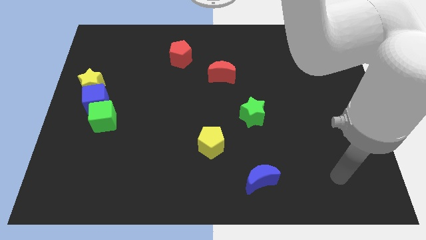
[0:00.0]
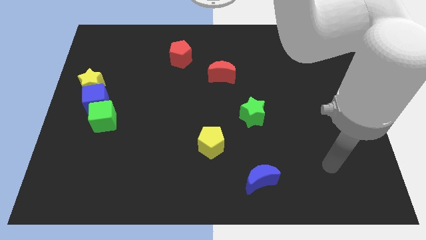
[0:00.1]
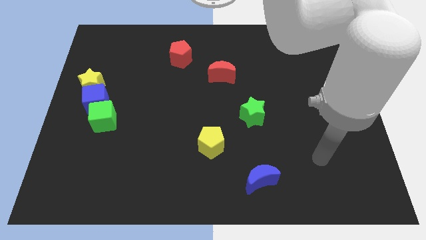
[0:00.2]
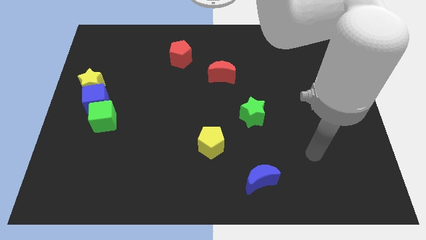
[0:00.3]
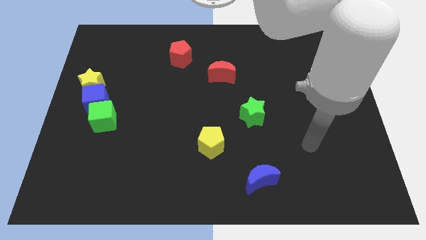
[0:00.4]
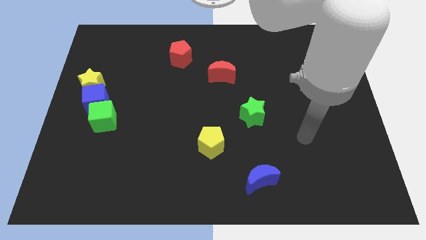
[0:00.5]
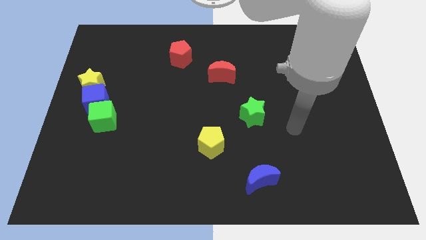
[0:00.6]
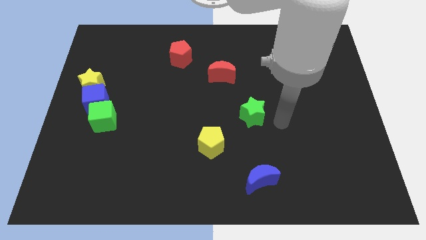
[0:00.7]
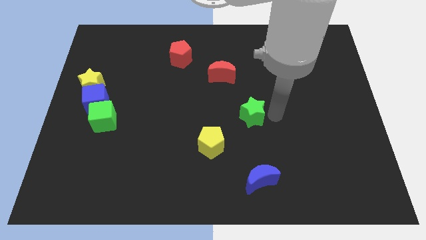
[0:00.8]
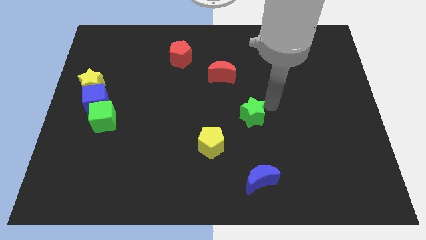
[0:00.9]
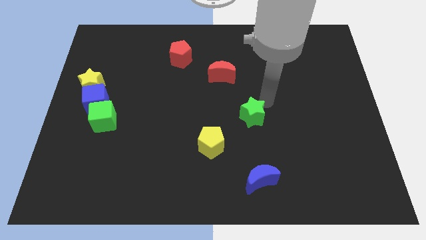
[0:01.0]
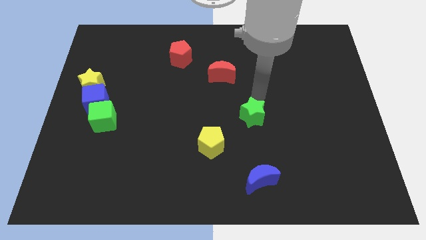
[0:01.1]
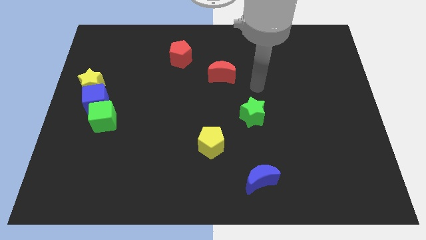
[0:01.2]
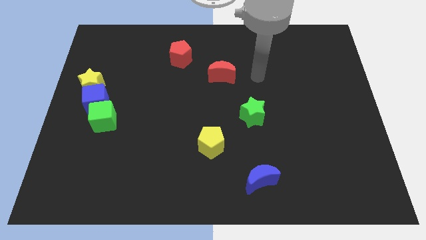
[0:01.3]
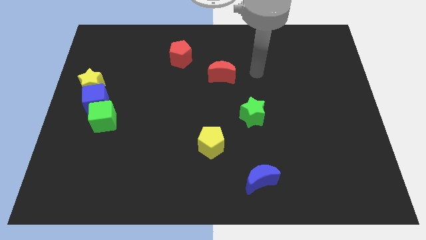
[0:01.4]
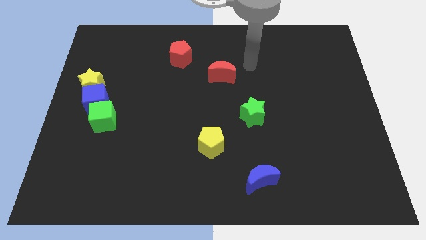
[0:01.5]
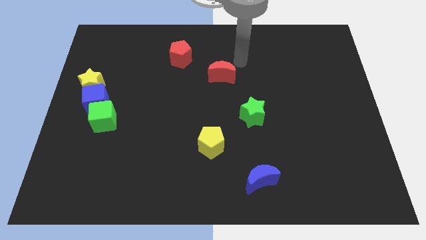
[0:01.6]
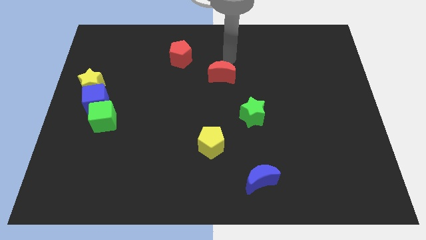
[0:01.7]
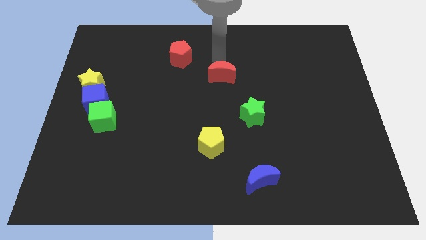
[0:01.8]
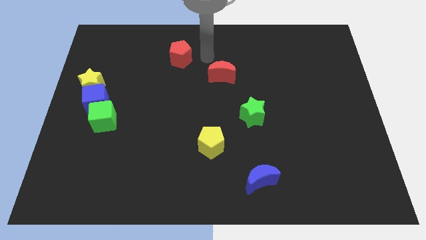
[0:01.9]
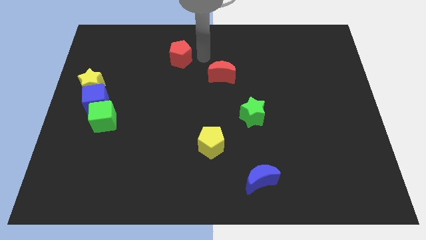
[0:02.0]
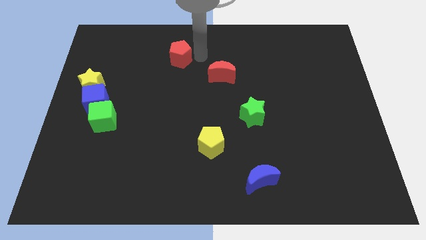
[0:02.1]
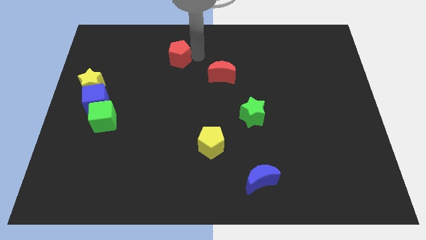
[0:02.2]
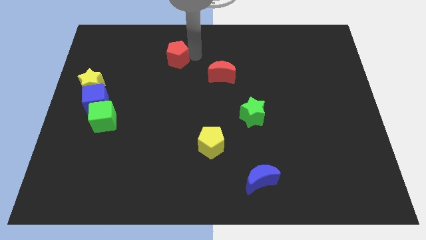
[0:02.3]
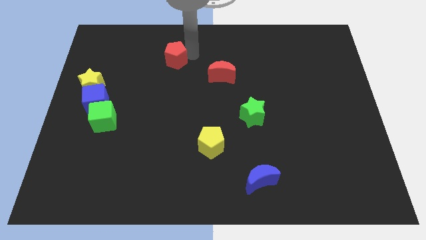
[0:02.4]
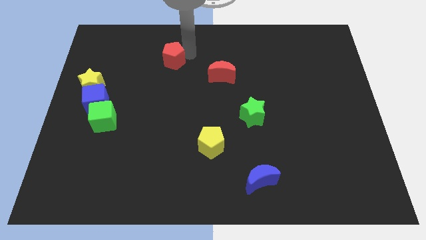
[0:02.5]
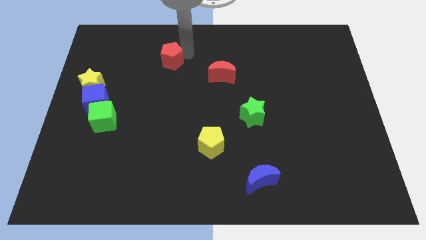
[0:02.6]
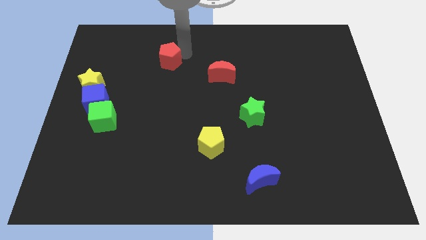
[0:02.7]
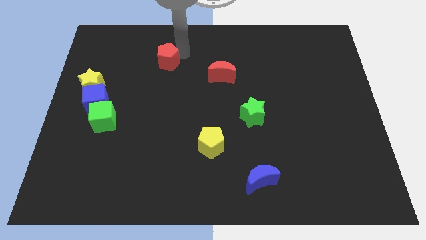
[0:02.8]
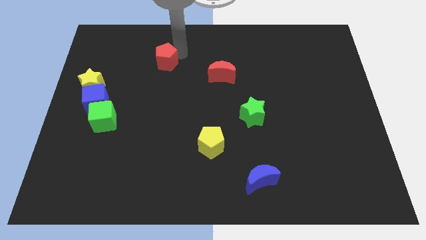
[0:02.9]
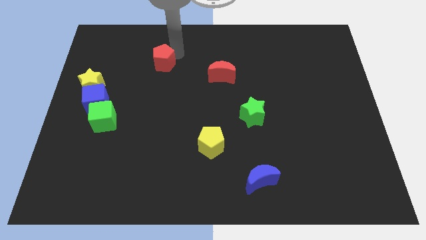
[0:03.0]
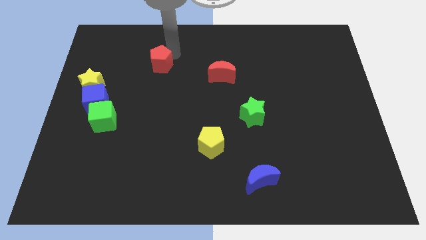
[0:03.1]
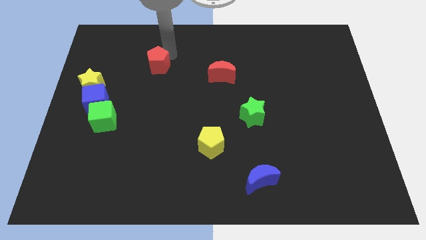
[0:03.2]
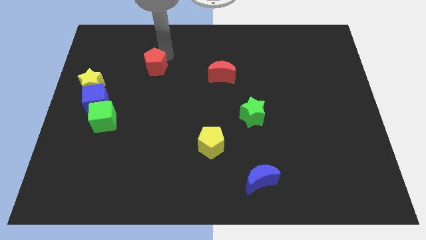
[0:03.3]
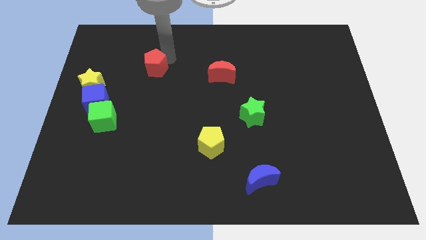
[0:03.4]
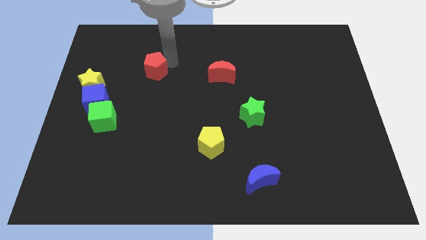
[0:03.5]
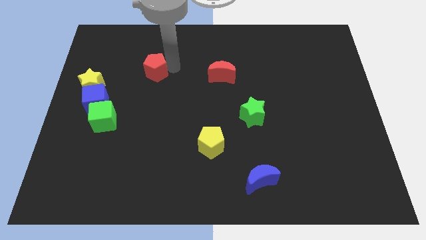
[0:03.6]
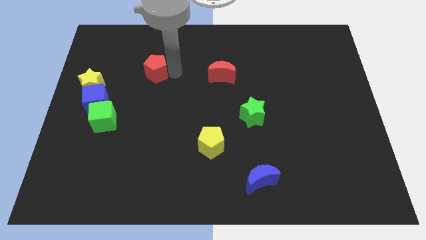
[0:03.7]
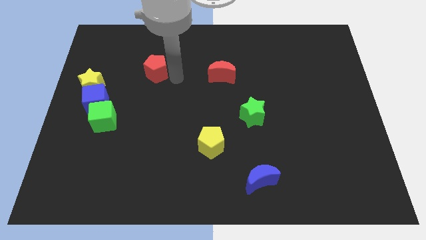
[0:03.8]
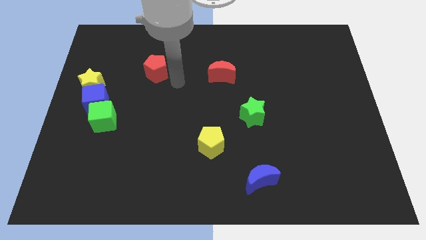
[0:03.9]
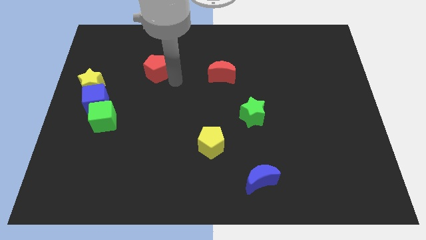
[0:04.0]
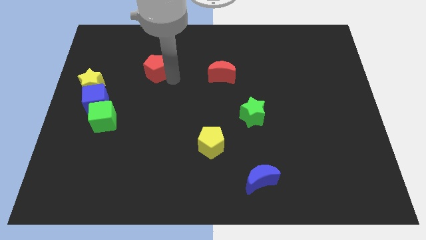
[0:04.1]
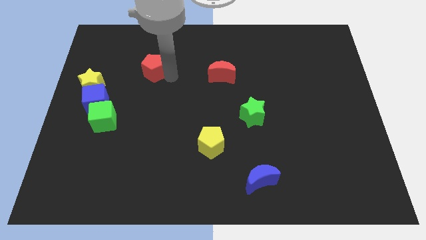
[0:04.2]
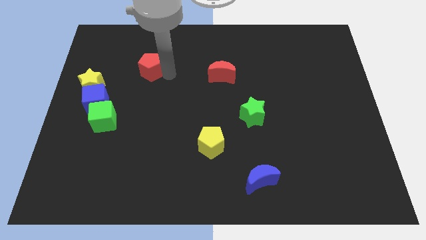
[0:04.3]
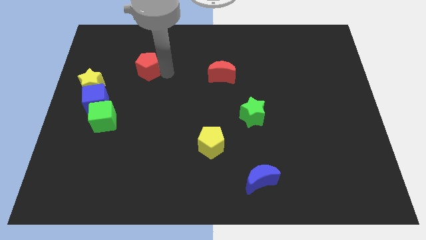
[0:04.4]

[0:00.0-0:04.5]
push the red pentagon slightly left

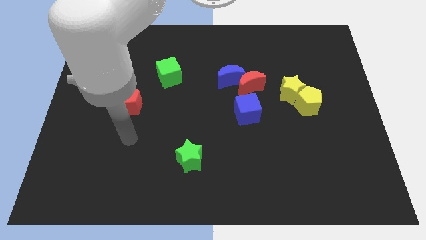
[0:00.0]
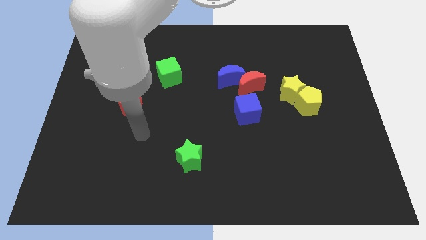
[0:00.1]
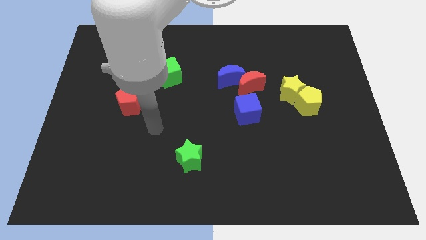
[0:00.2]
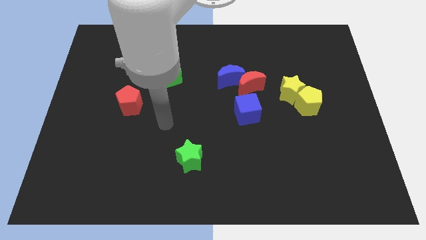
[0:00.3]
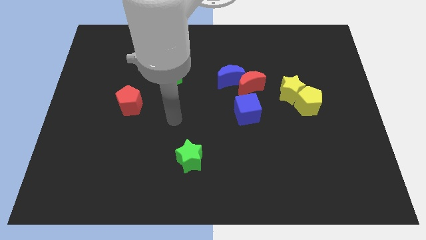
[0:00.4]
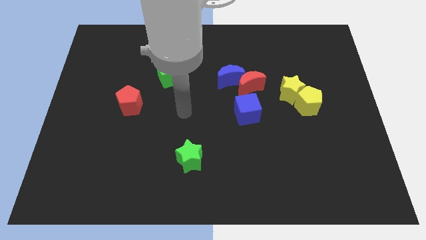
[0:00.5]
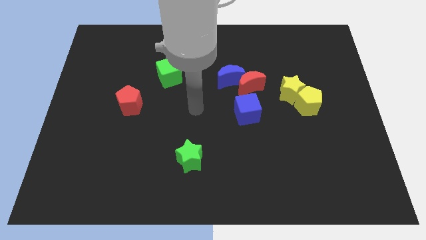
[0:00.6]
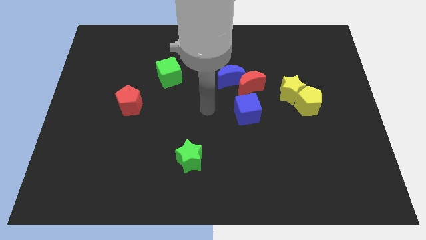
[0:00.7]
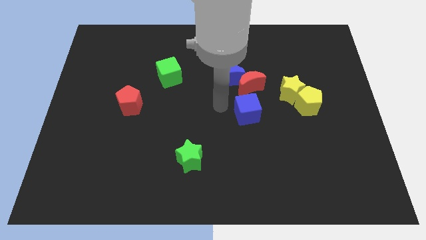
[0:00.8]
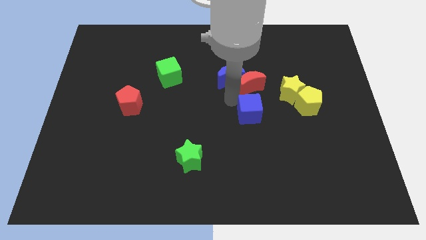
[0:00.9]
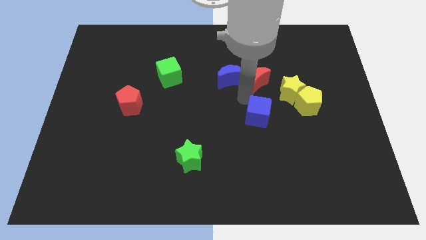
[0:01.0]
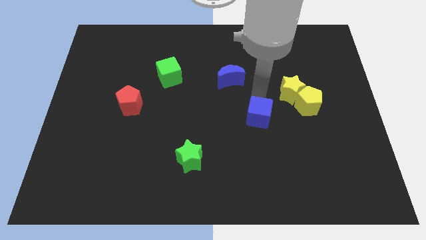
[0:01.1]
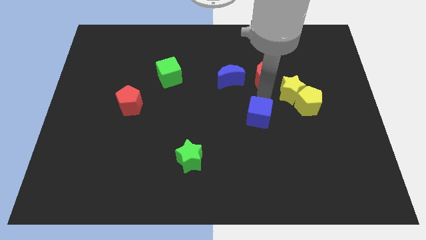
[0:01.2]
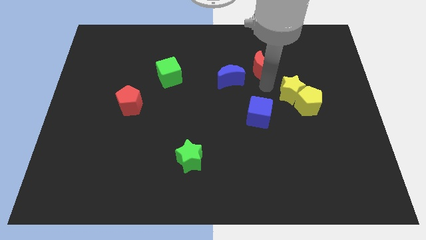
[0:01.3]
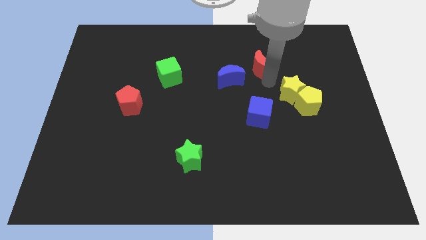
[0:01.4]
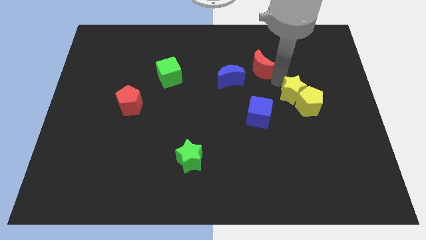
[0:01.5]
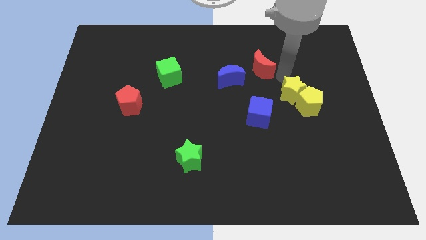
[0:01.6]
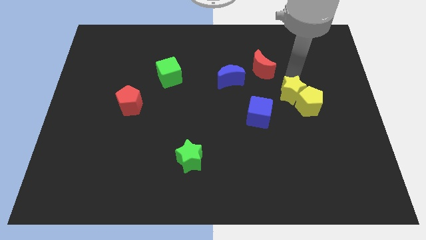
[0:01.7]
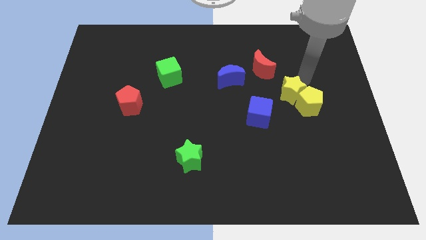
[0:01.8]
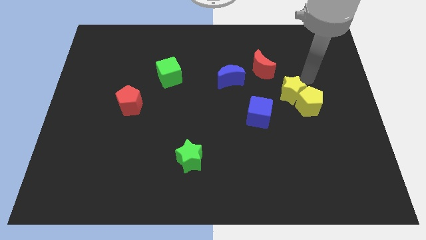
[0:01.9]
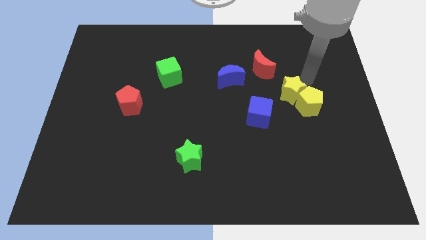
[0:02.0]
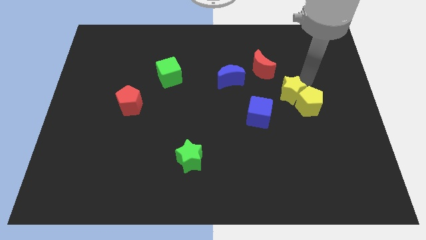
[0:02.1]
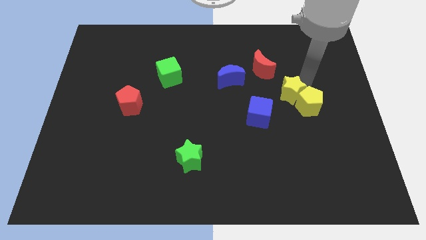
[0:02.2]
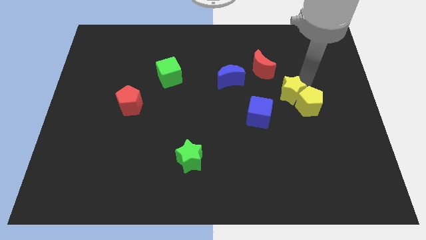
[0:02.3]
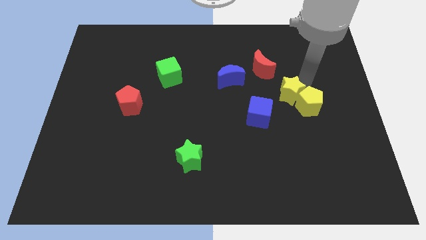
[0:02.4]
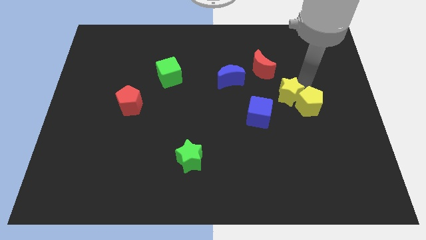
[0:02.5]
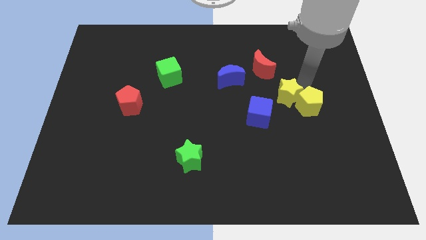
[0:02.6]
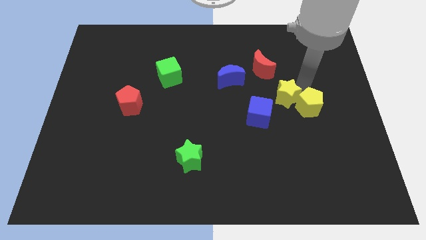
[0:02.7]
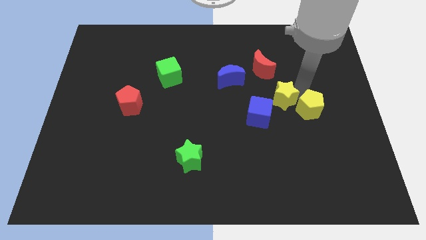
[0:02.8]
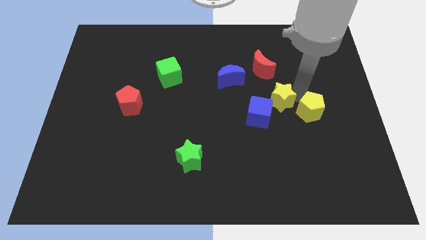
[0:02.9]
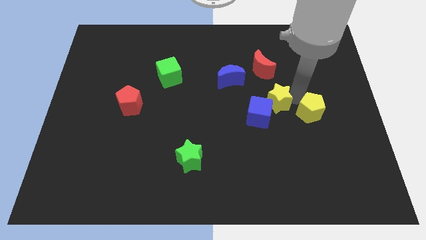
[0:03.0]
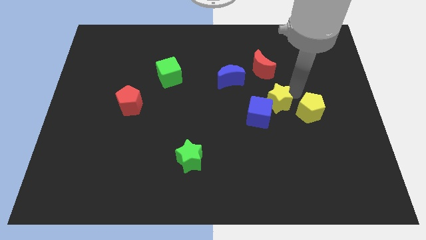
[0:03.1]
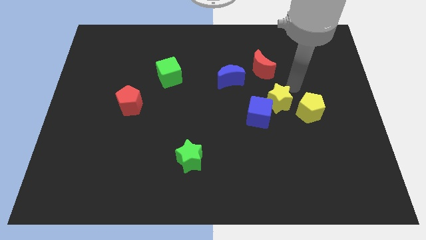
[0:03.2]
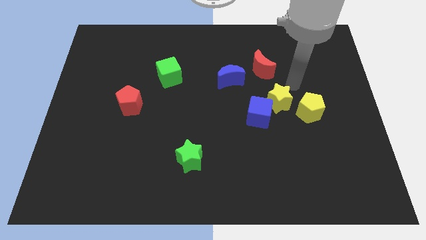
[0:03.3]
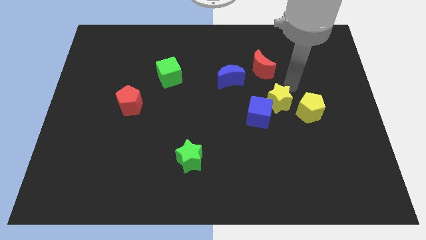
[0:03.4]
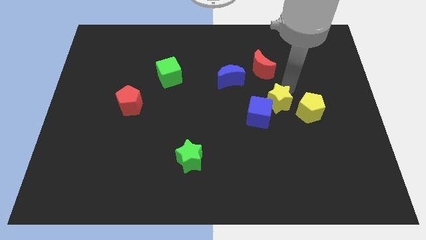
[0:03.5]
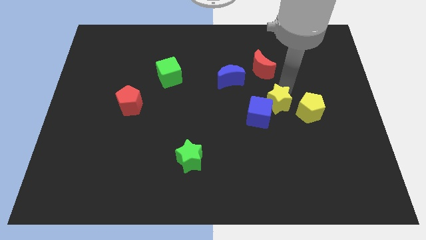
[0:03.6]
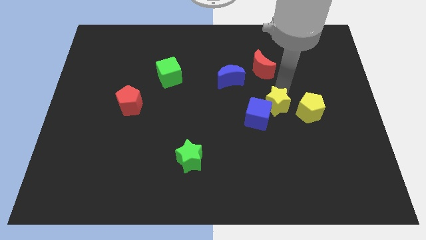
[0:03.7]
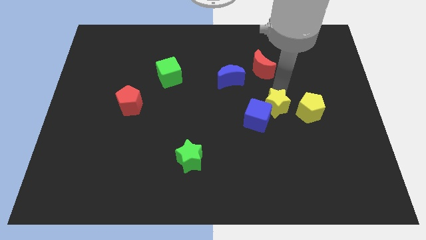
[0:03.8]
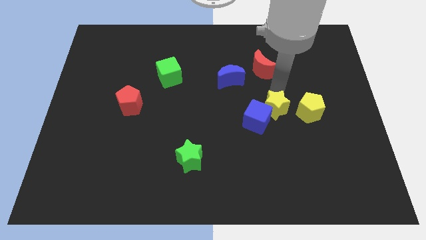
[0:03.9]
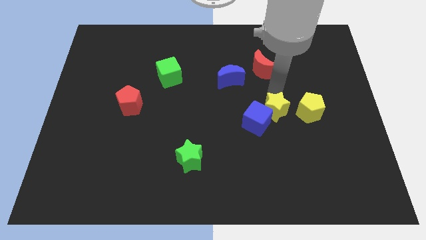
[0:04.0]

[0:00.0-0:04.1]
move the yellow star down and then to the left slightly
